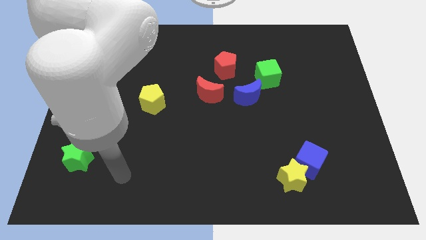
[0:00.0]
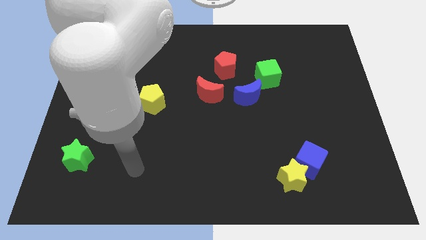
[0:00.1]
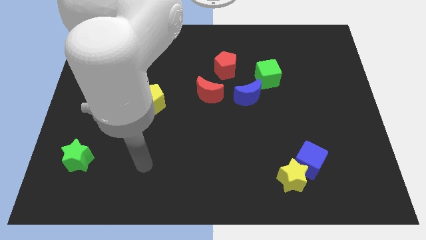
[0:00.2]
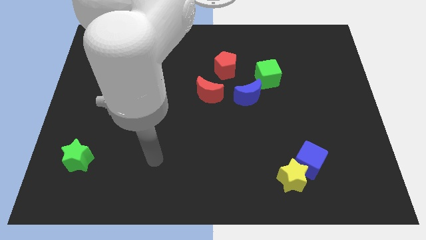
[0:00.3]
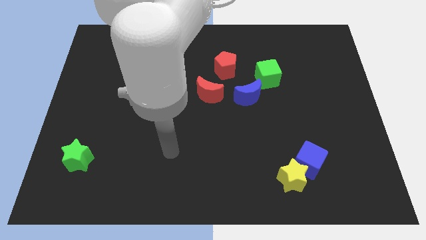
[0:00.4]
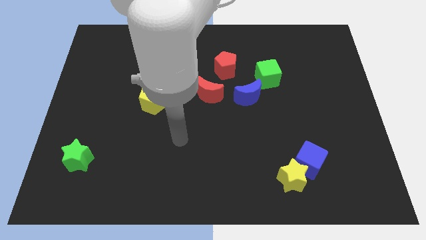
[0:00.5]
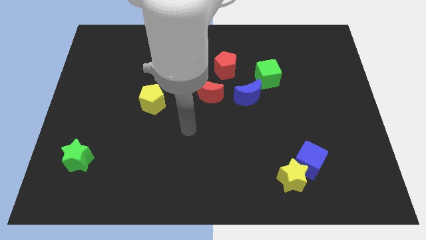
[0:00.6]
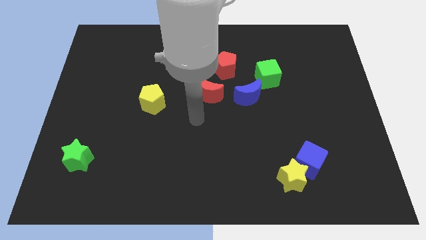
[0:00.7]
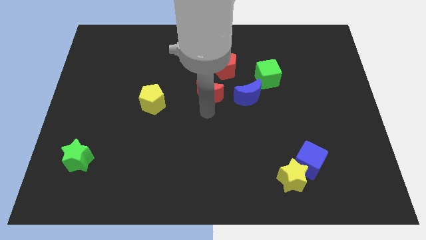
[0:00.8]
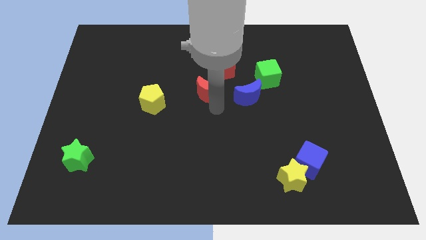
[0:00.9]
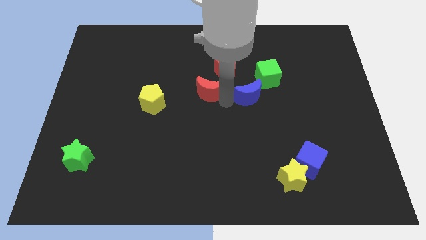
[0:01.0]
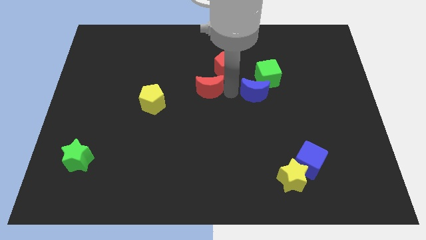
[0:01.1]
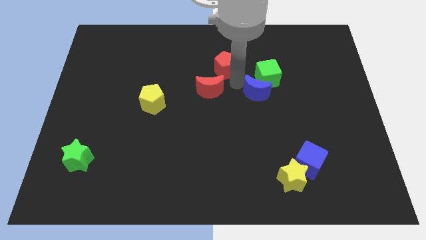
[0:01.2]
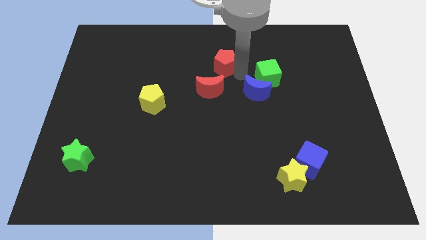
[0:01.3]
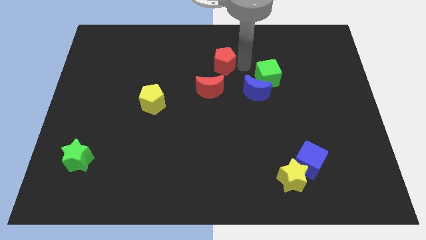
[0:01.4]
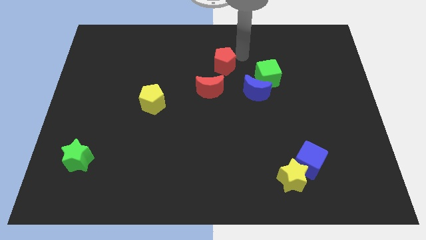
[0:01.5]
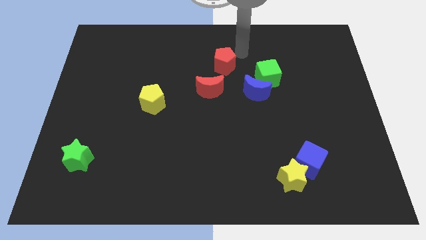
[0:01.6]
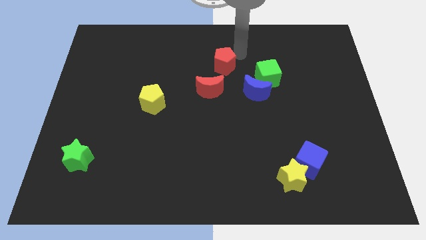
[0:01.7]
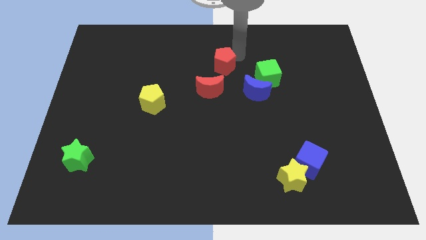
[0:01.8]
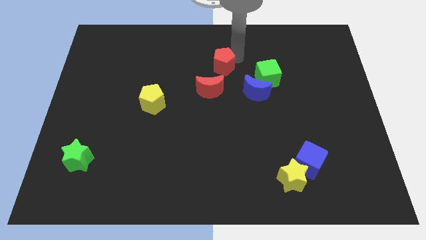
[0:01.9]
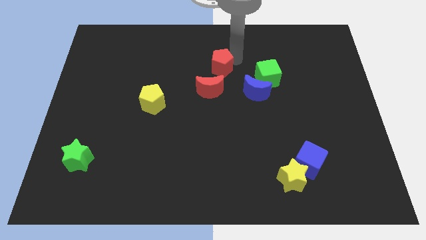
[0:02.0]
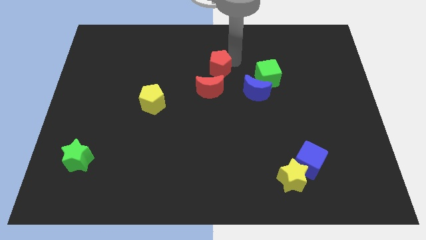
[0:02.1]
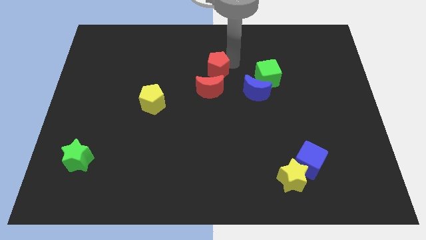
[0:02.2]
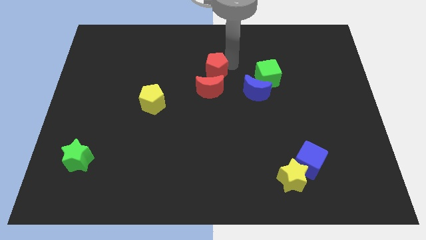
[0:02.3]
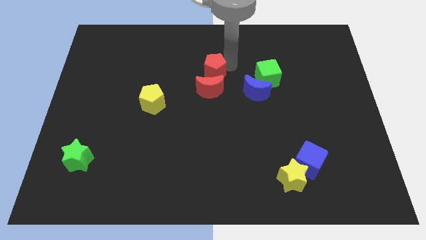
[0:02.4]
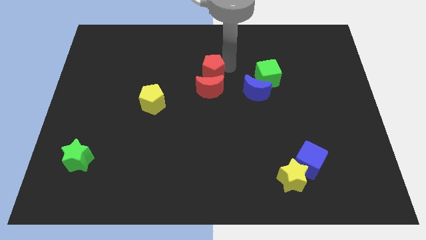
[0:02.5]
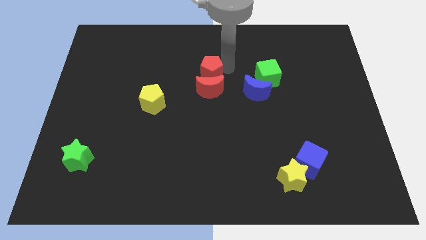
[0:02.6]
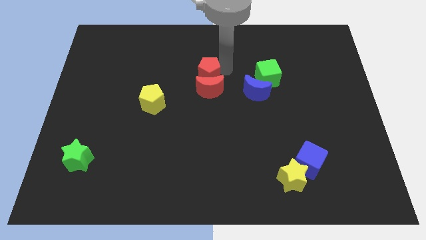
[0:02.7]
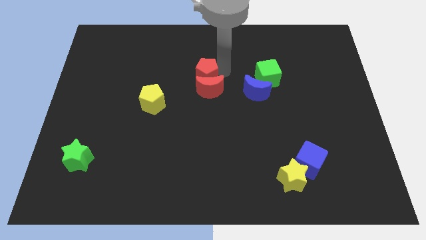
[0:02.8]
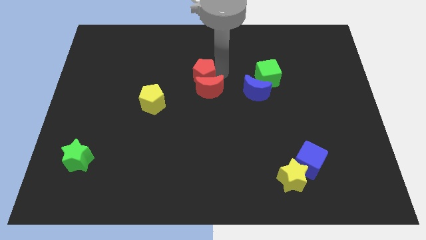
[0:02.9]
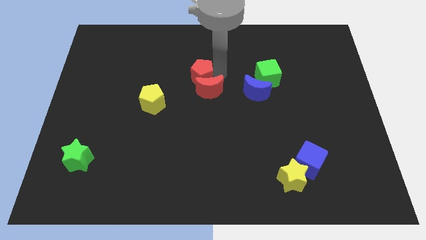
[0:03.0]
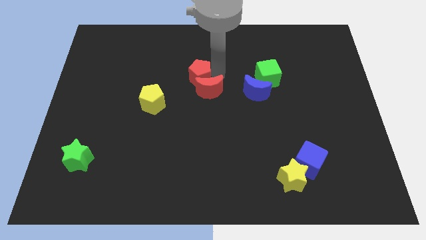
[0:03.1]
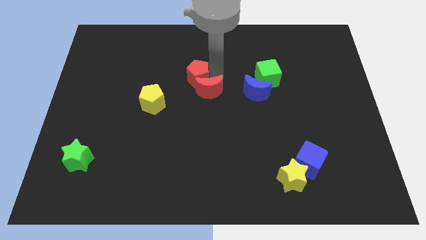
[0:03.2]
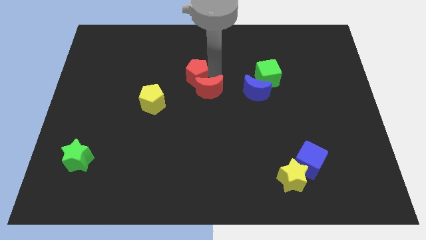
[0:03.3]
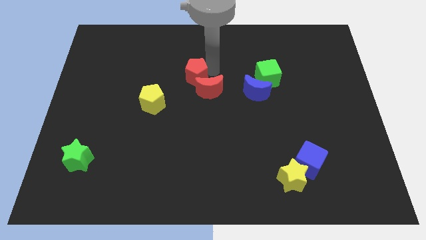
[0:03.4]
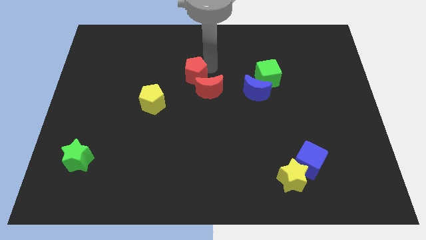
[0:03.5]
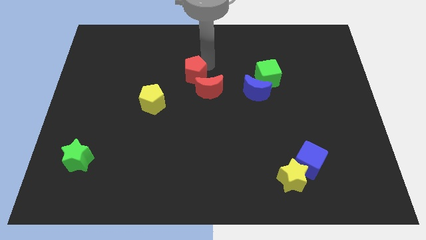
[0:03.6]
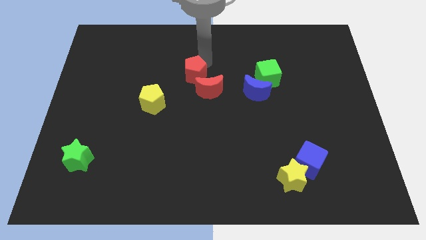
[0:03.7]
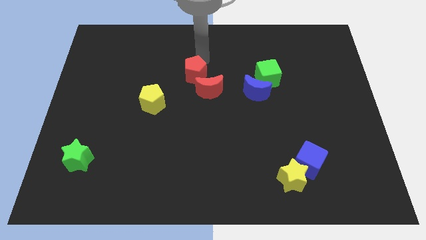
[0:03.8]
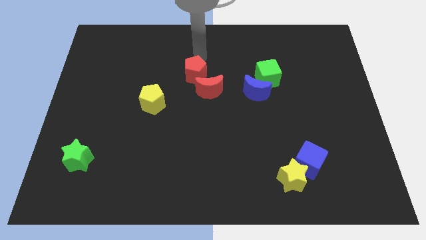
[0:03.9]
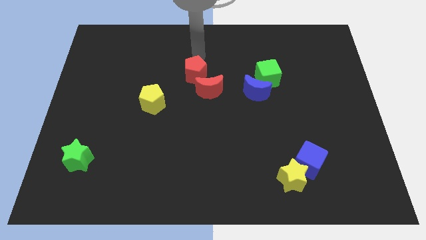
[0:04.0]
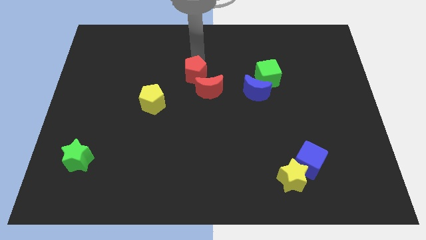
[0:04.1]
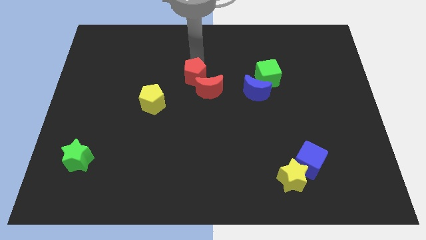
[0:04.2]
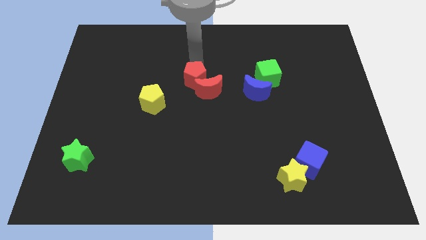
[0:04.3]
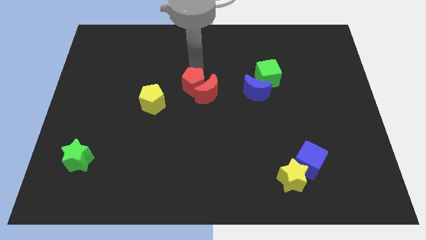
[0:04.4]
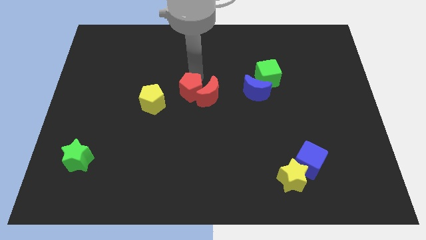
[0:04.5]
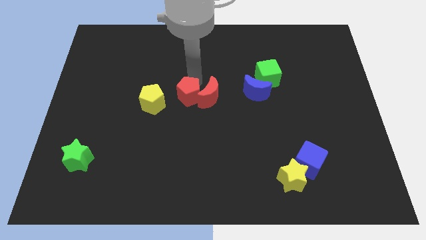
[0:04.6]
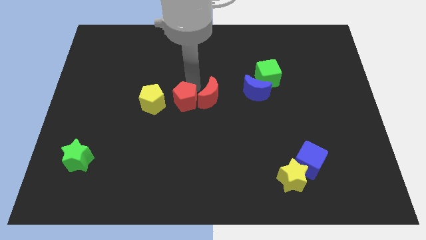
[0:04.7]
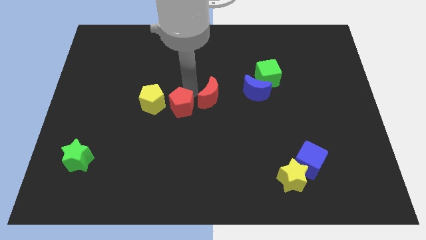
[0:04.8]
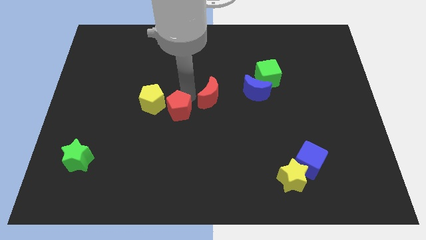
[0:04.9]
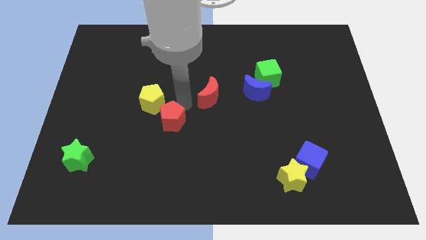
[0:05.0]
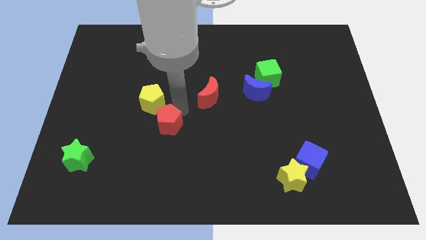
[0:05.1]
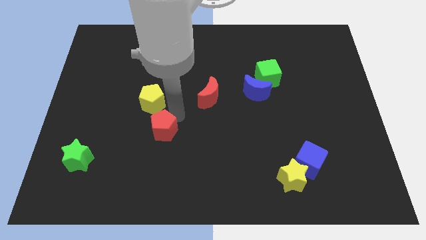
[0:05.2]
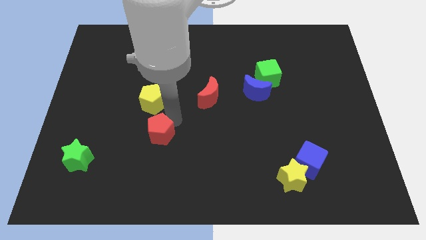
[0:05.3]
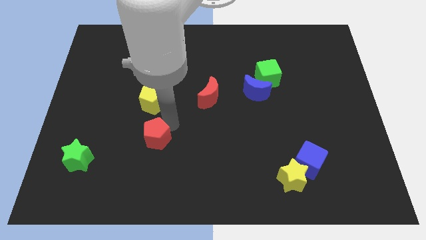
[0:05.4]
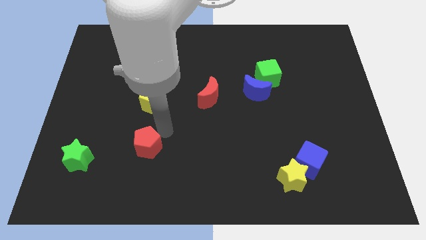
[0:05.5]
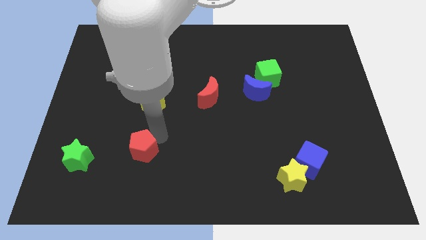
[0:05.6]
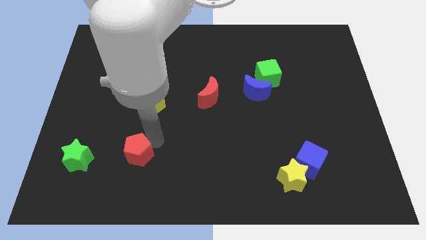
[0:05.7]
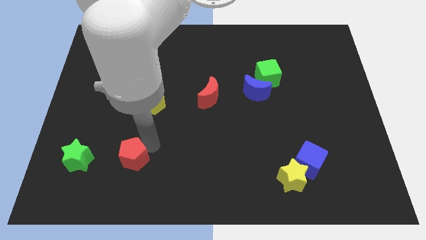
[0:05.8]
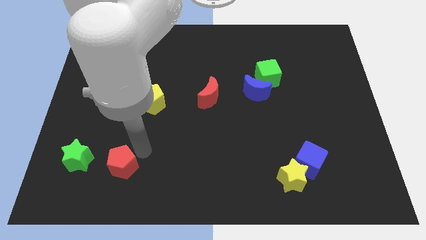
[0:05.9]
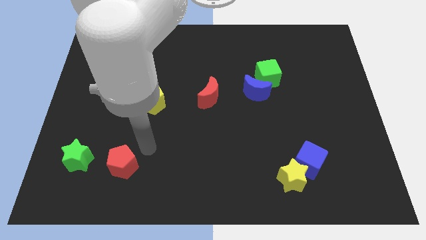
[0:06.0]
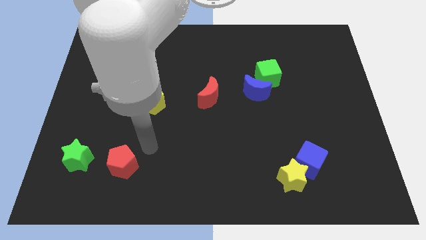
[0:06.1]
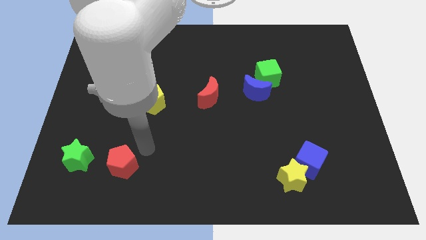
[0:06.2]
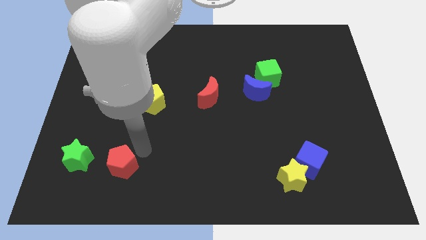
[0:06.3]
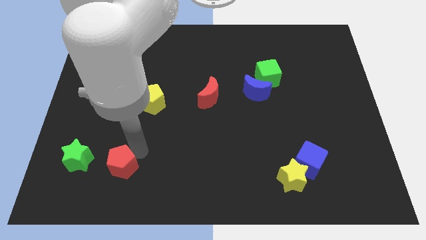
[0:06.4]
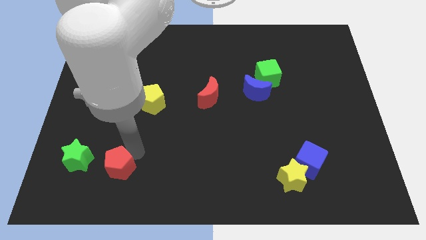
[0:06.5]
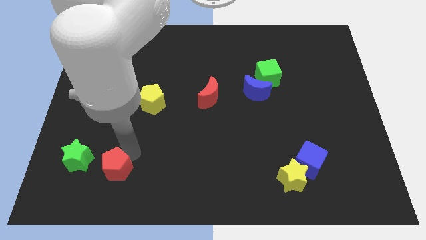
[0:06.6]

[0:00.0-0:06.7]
move the red pentagon to the bottom right side of the green star
